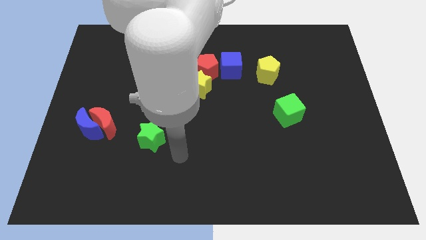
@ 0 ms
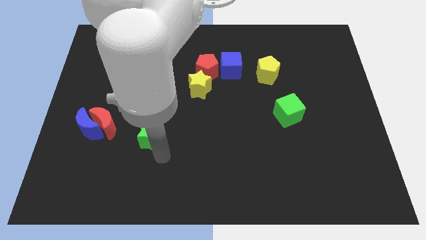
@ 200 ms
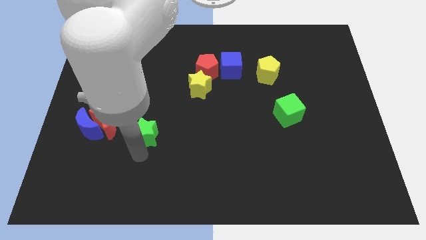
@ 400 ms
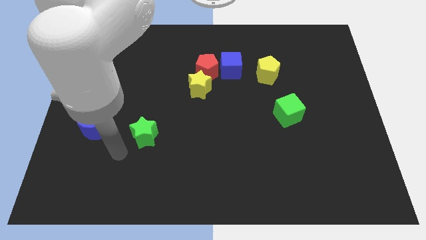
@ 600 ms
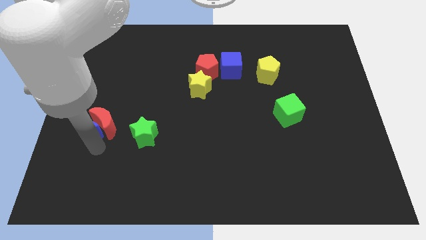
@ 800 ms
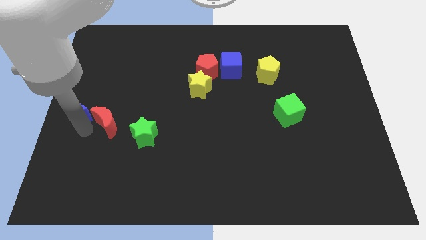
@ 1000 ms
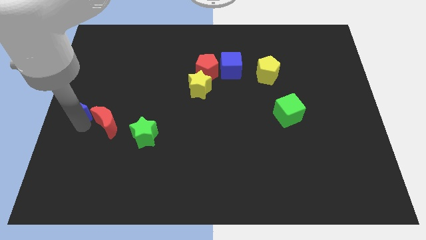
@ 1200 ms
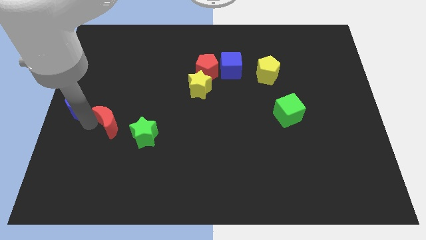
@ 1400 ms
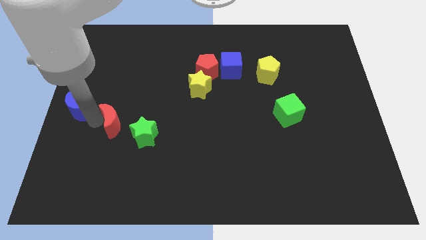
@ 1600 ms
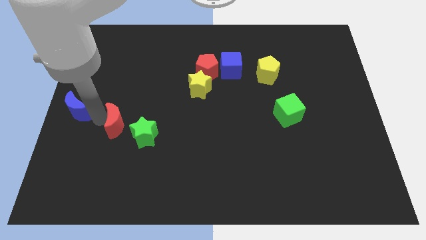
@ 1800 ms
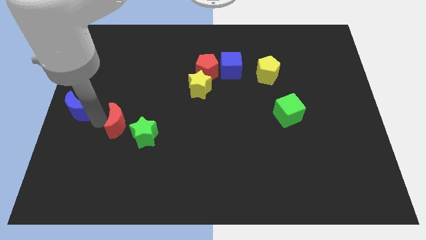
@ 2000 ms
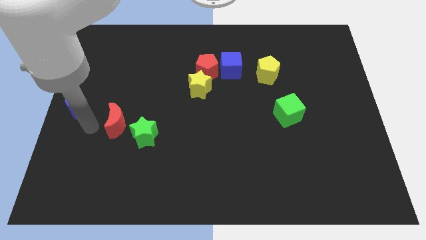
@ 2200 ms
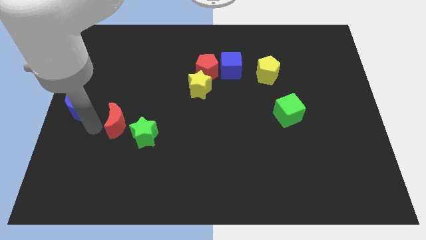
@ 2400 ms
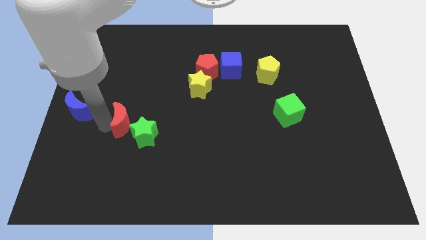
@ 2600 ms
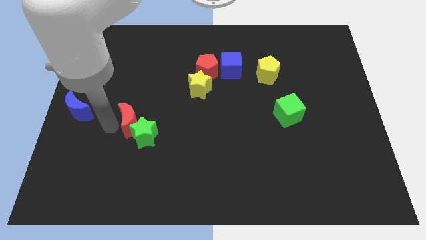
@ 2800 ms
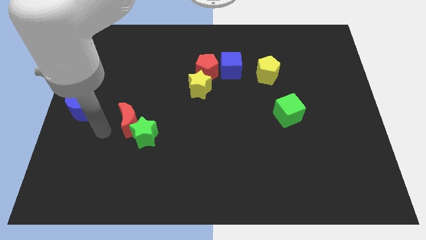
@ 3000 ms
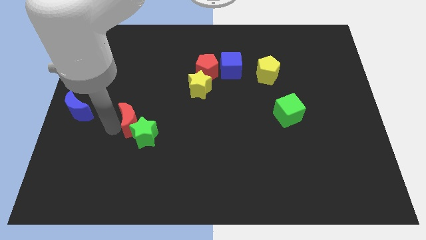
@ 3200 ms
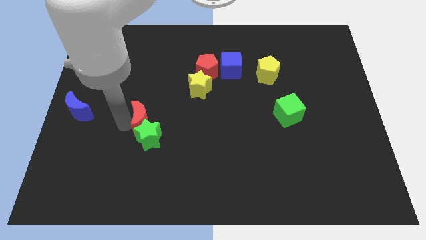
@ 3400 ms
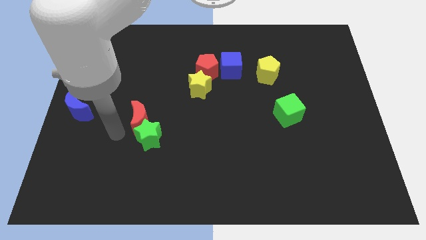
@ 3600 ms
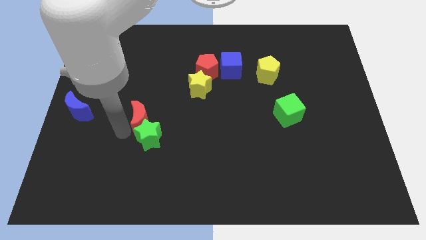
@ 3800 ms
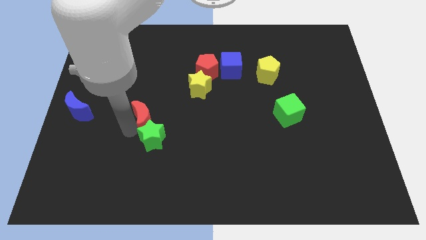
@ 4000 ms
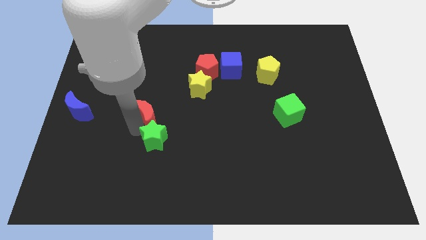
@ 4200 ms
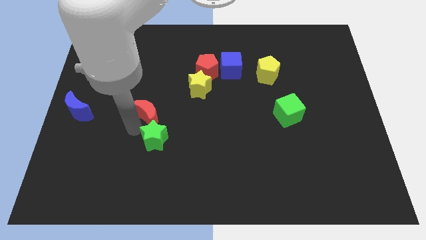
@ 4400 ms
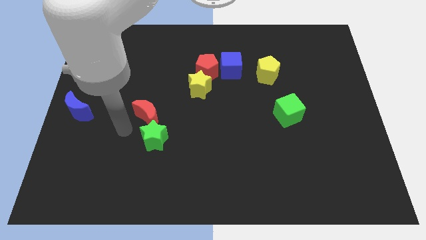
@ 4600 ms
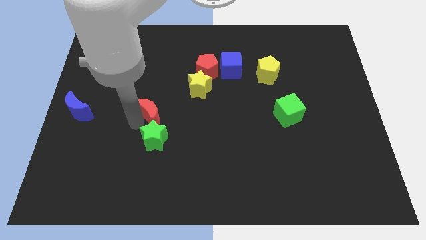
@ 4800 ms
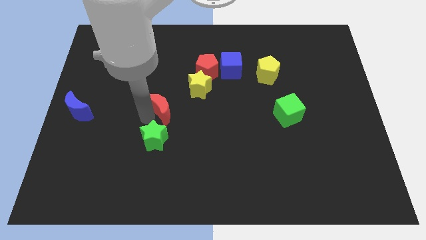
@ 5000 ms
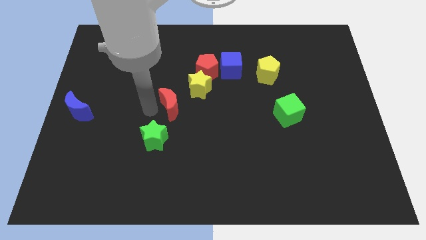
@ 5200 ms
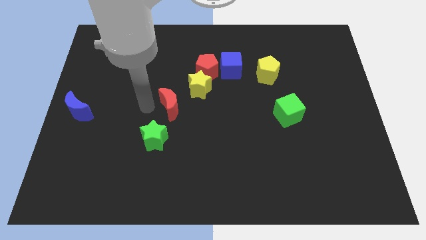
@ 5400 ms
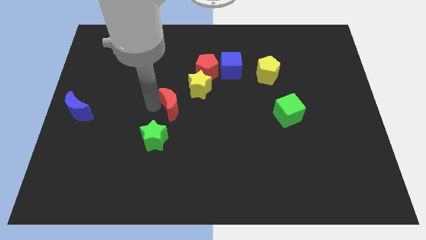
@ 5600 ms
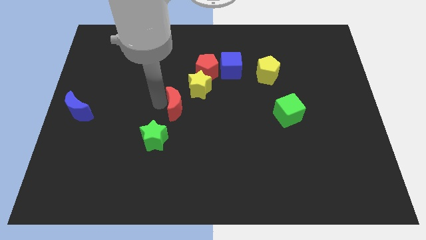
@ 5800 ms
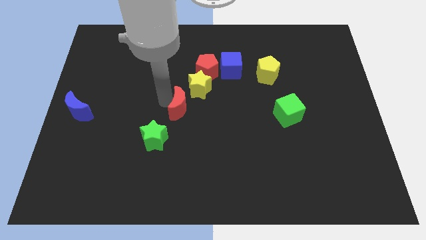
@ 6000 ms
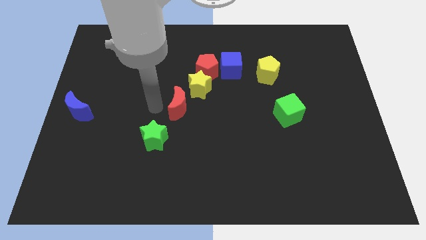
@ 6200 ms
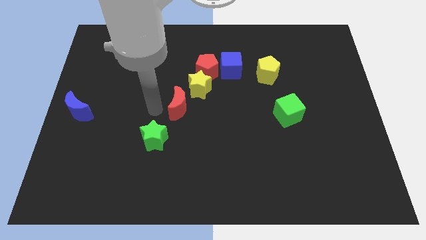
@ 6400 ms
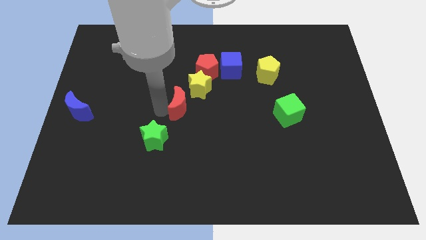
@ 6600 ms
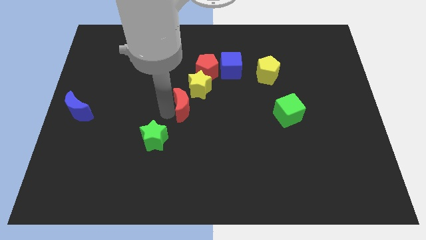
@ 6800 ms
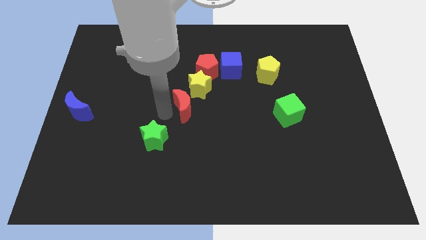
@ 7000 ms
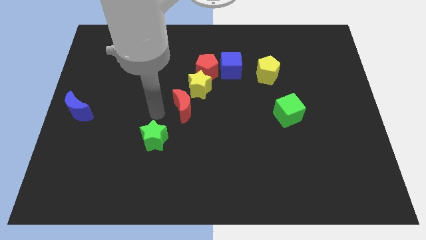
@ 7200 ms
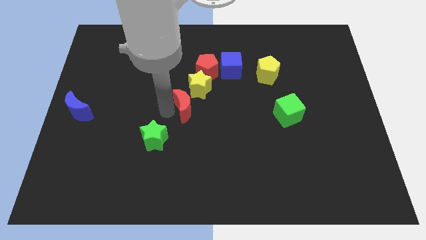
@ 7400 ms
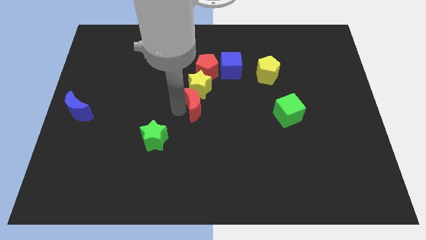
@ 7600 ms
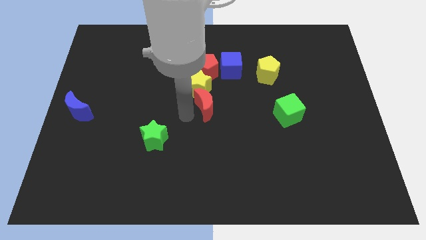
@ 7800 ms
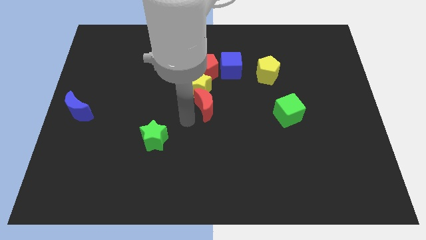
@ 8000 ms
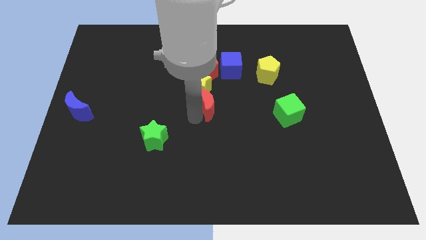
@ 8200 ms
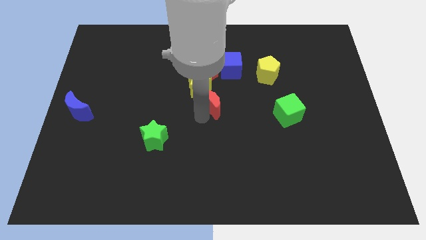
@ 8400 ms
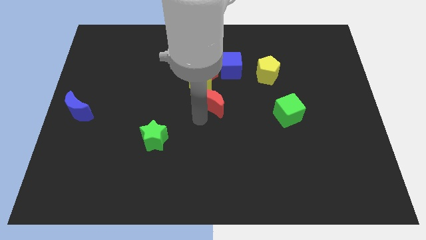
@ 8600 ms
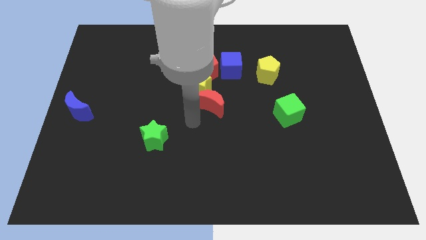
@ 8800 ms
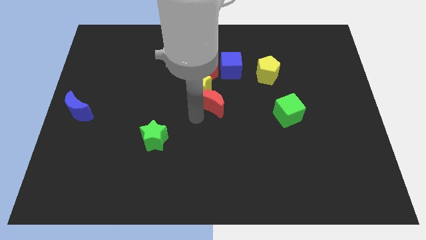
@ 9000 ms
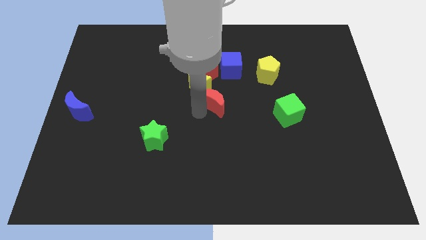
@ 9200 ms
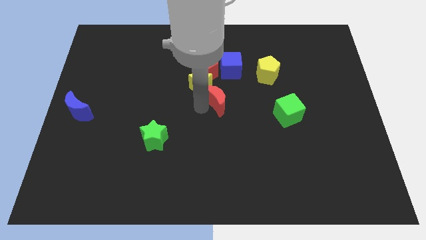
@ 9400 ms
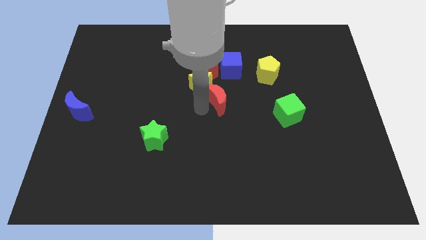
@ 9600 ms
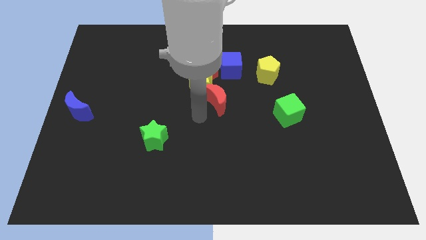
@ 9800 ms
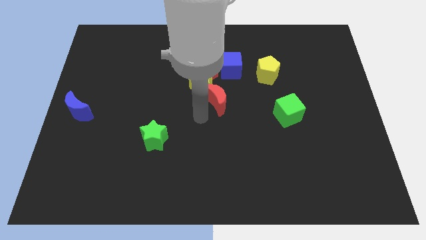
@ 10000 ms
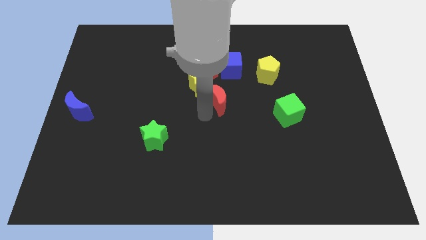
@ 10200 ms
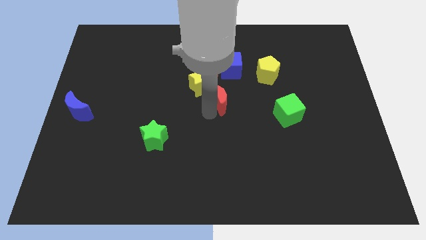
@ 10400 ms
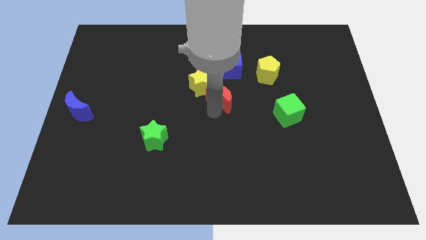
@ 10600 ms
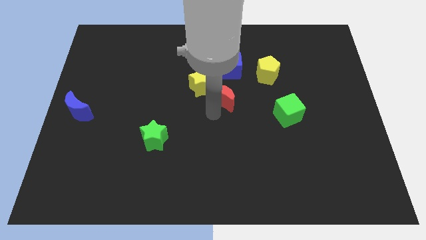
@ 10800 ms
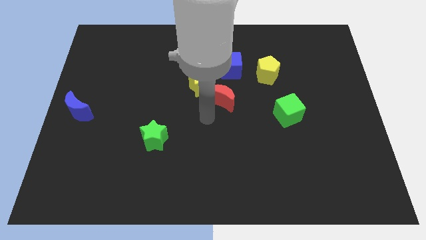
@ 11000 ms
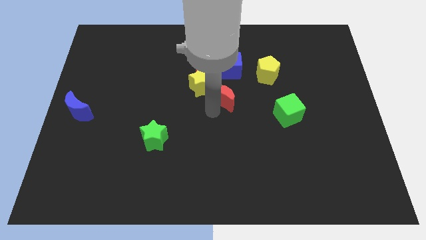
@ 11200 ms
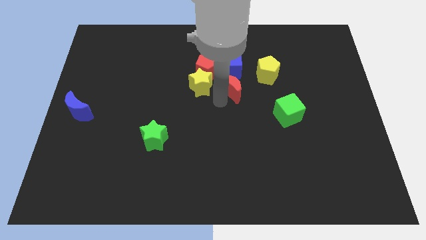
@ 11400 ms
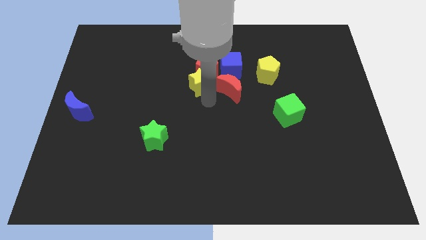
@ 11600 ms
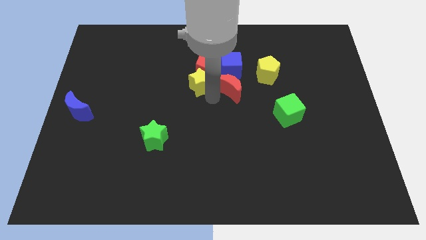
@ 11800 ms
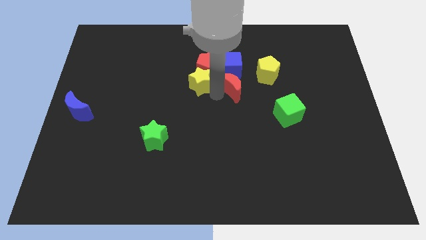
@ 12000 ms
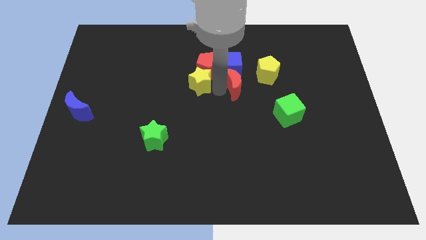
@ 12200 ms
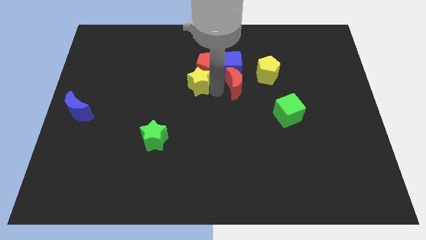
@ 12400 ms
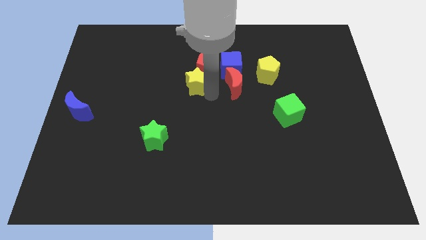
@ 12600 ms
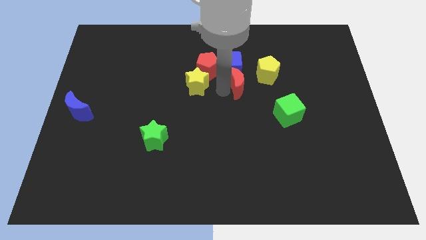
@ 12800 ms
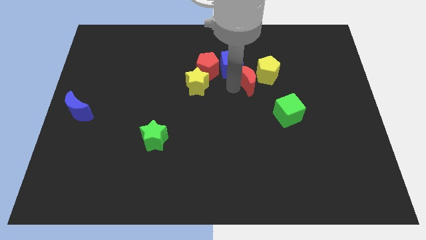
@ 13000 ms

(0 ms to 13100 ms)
slide the red moon close to the yellow pentagon

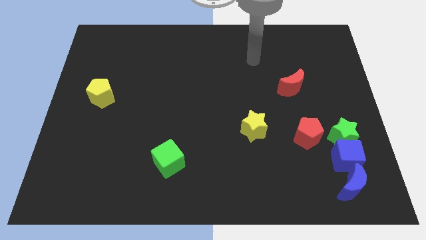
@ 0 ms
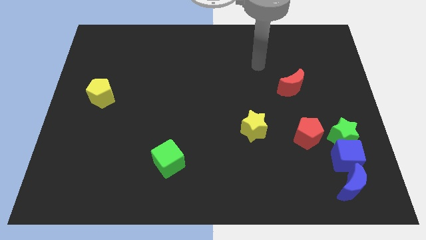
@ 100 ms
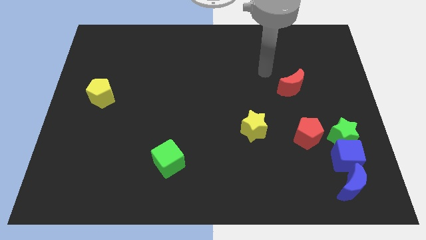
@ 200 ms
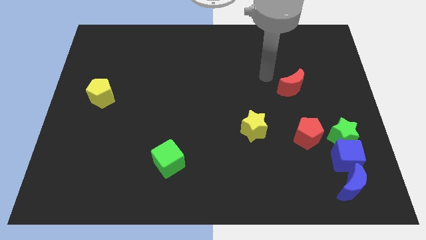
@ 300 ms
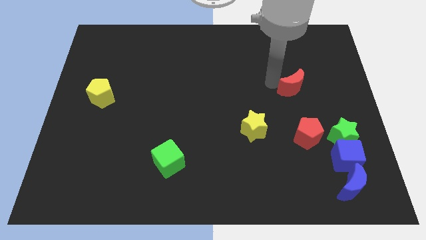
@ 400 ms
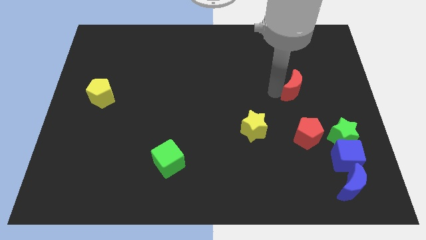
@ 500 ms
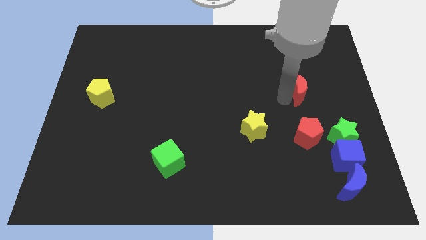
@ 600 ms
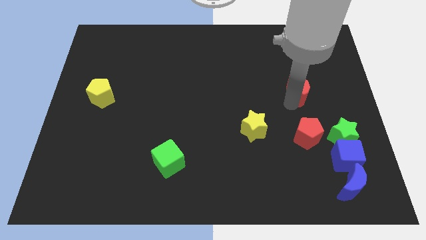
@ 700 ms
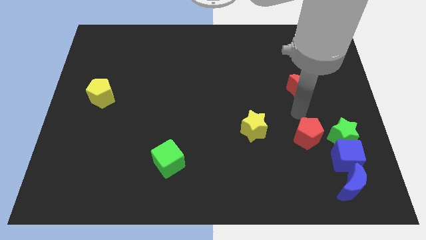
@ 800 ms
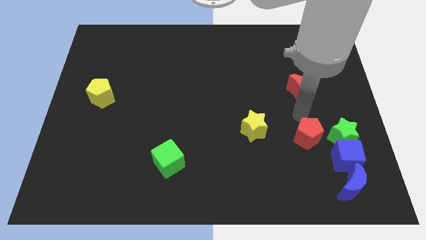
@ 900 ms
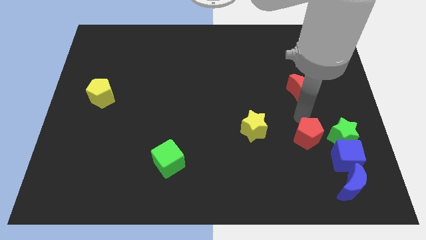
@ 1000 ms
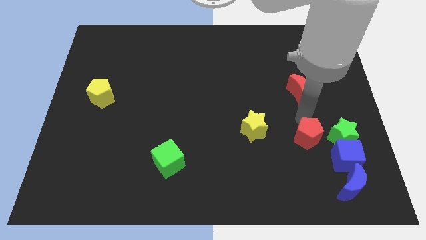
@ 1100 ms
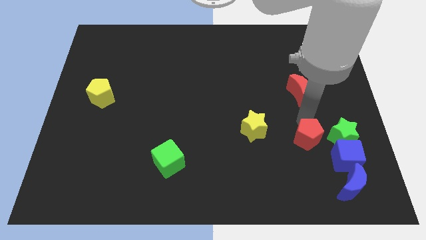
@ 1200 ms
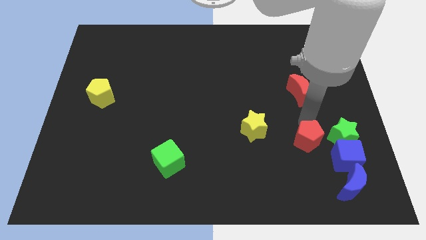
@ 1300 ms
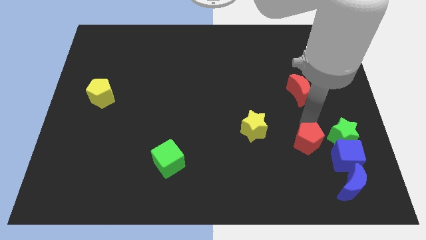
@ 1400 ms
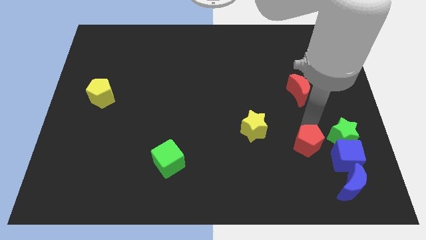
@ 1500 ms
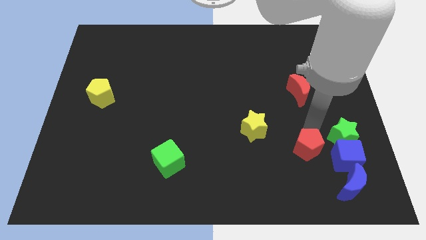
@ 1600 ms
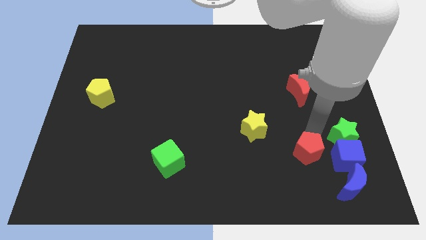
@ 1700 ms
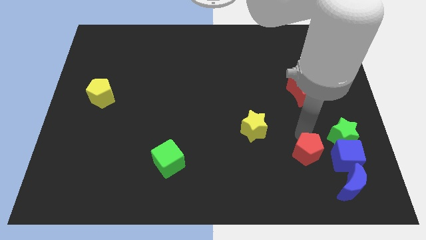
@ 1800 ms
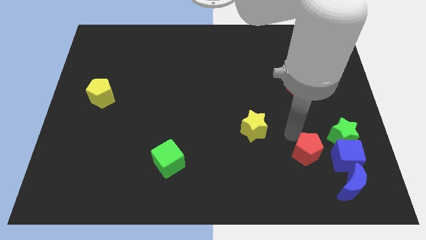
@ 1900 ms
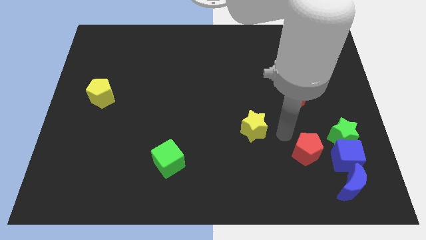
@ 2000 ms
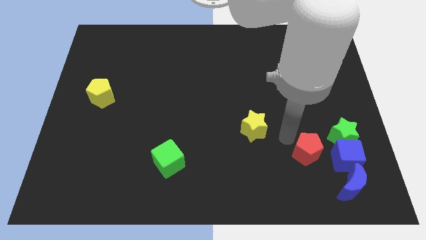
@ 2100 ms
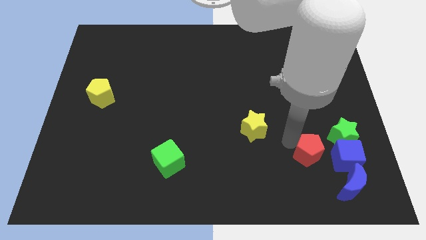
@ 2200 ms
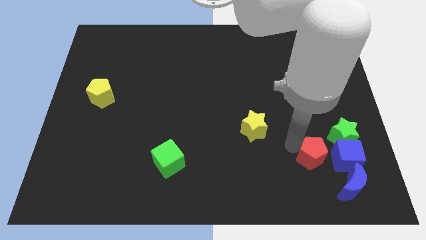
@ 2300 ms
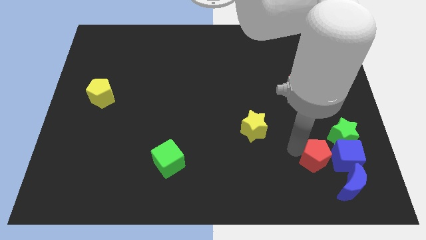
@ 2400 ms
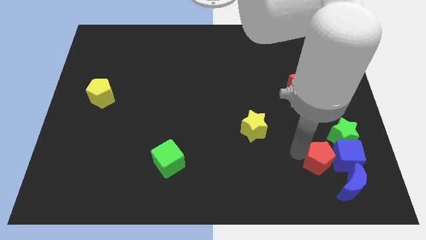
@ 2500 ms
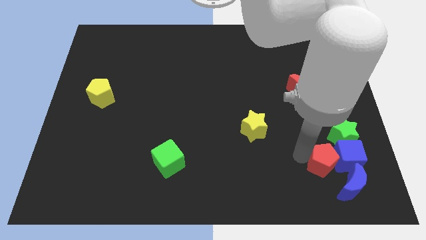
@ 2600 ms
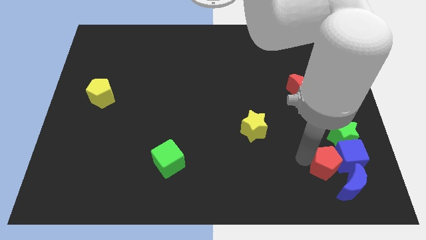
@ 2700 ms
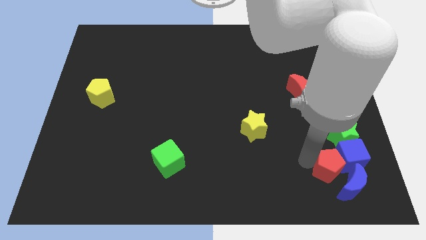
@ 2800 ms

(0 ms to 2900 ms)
slide the red pentagon close to the blue moon
